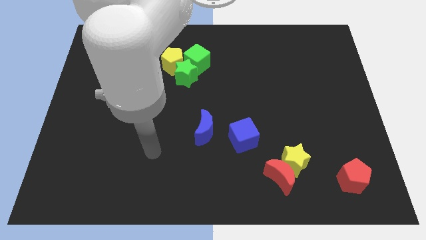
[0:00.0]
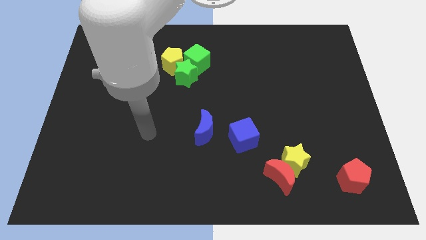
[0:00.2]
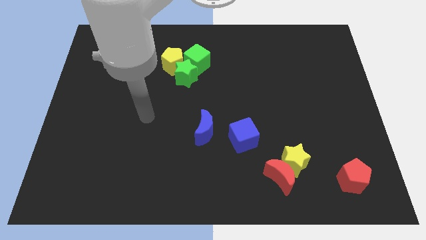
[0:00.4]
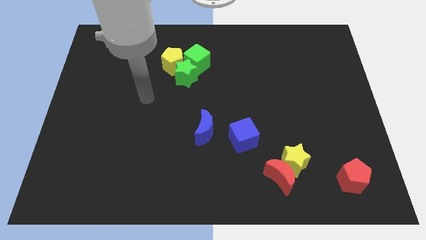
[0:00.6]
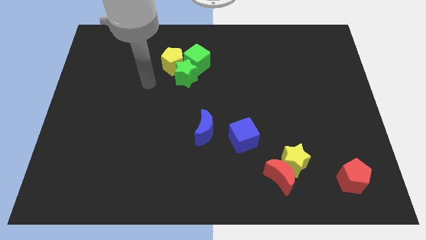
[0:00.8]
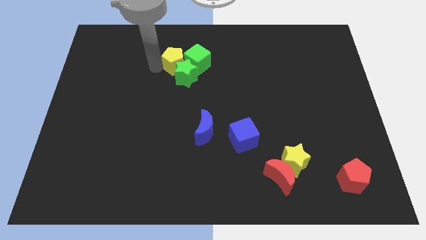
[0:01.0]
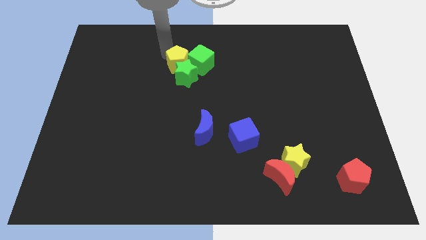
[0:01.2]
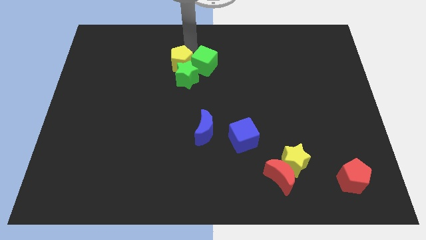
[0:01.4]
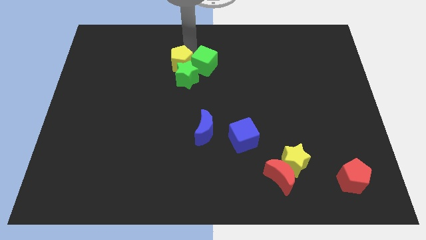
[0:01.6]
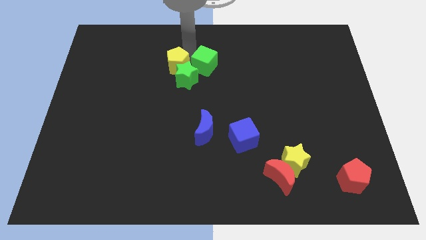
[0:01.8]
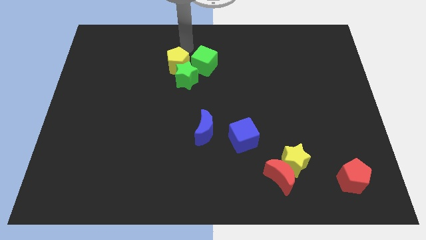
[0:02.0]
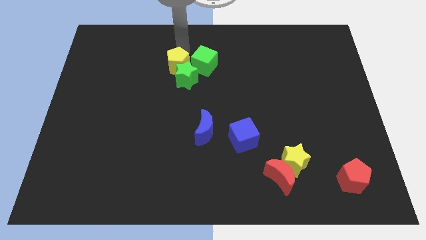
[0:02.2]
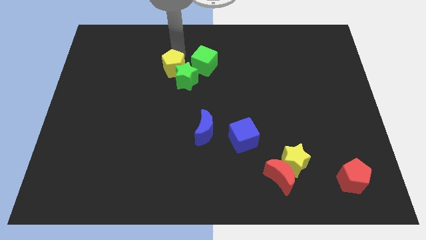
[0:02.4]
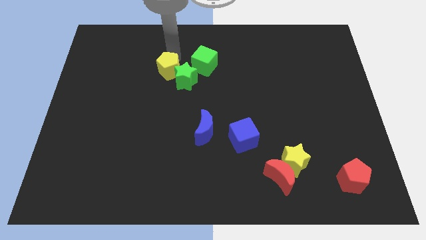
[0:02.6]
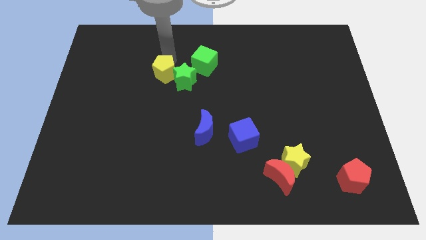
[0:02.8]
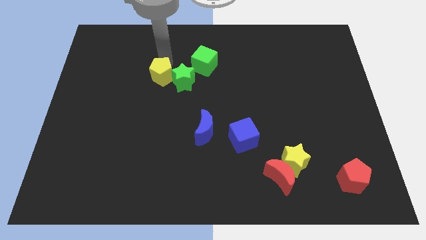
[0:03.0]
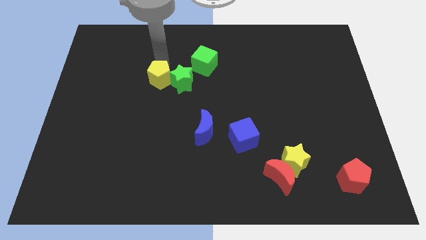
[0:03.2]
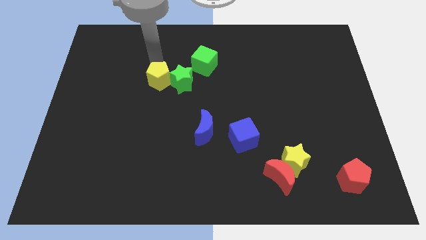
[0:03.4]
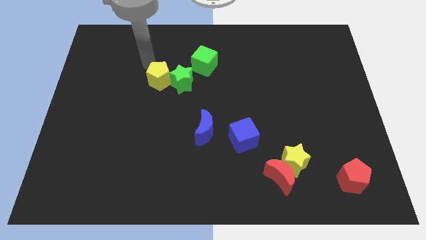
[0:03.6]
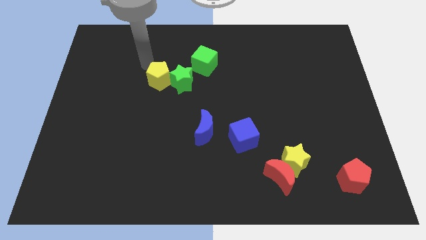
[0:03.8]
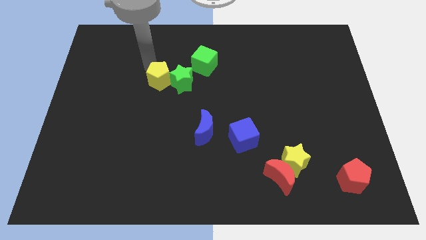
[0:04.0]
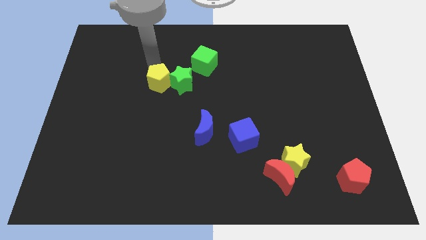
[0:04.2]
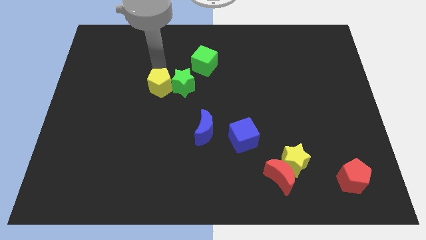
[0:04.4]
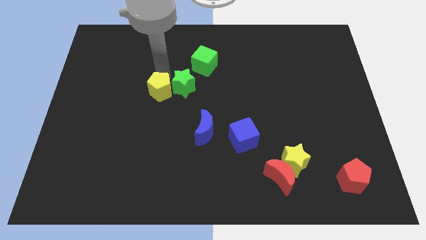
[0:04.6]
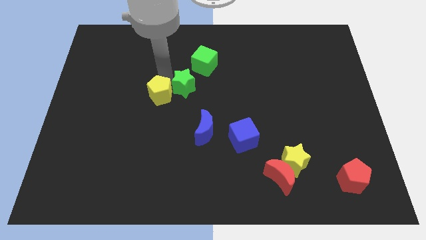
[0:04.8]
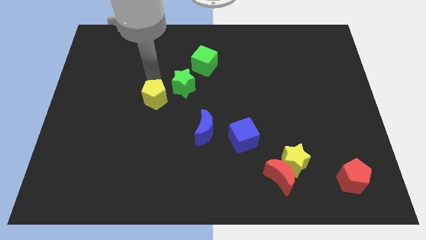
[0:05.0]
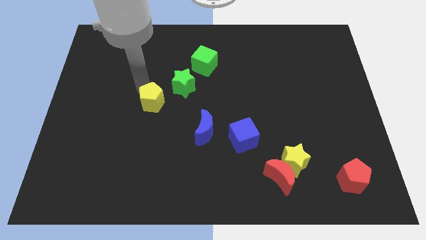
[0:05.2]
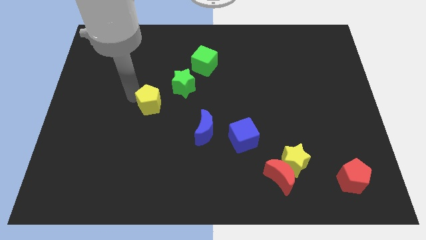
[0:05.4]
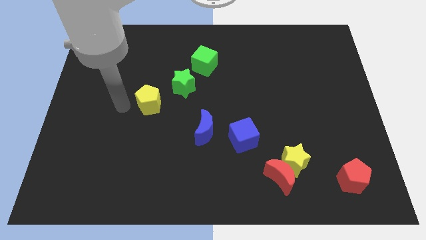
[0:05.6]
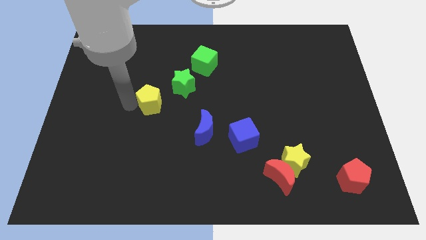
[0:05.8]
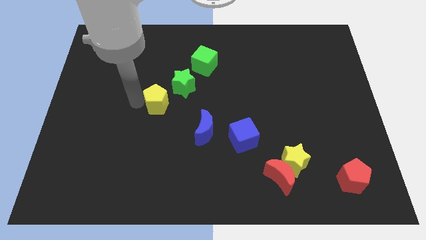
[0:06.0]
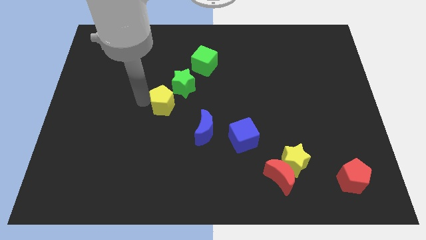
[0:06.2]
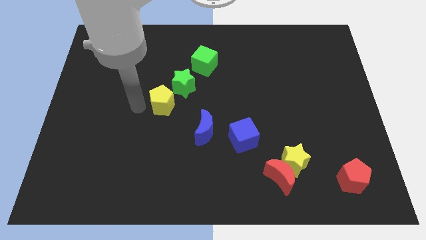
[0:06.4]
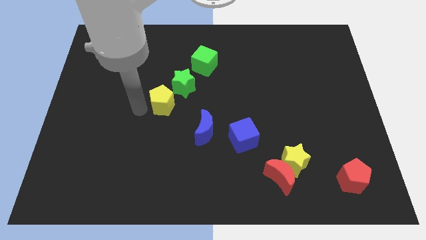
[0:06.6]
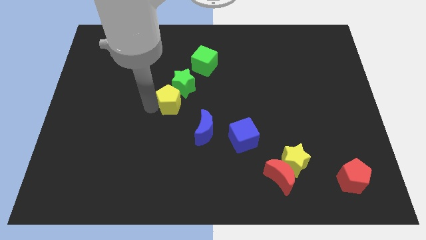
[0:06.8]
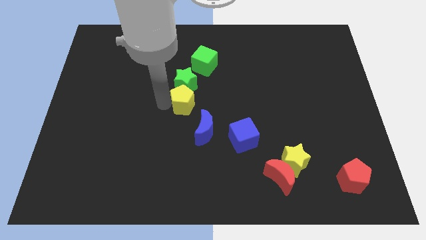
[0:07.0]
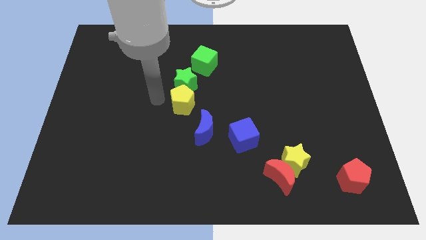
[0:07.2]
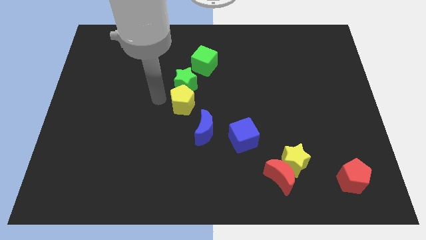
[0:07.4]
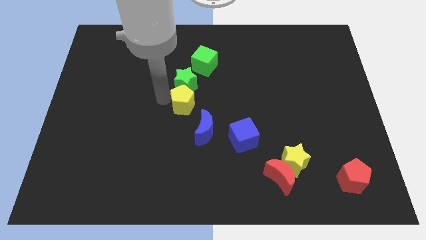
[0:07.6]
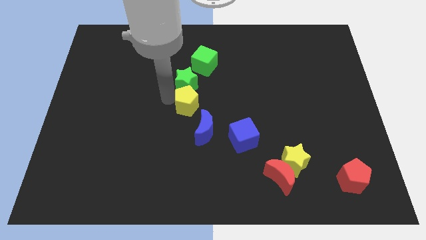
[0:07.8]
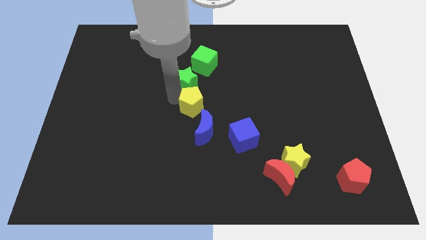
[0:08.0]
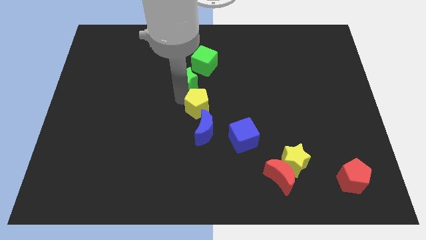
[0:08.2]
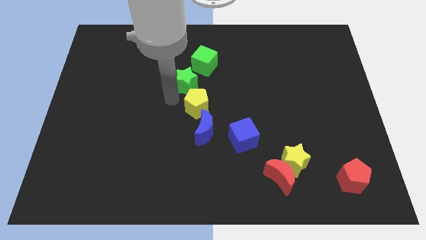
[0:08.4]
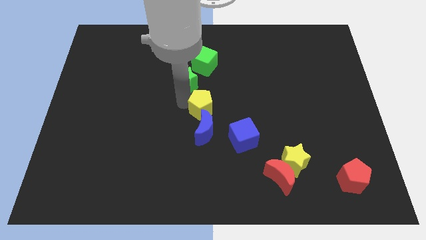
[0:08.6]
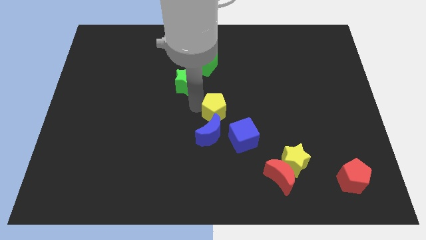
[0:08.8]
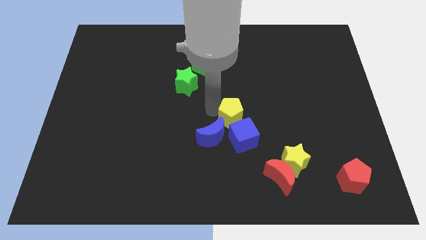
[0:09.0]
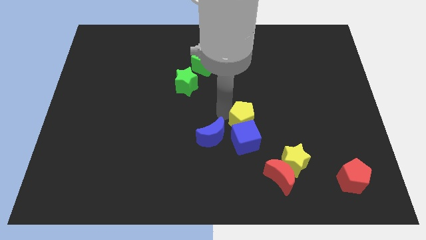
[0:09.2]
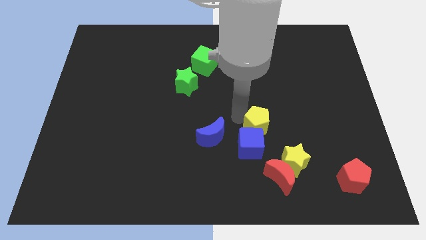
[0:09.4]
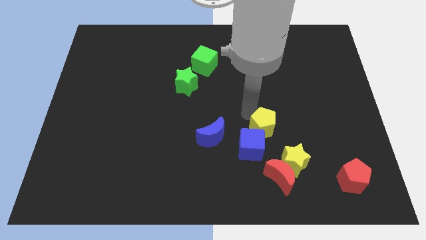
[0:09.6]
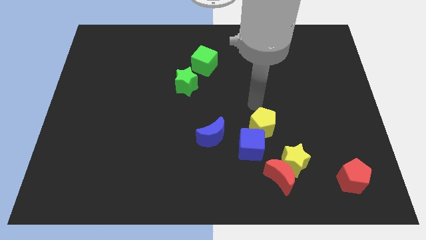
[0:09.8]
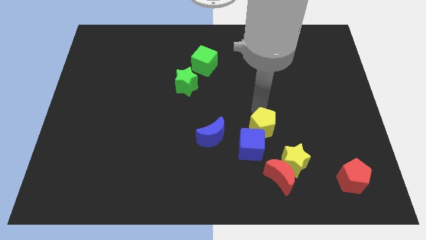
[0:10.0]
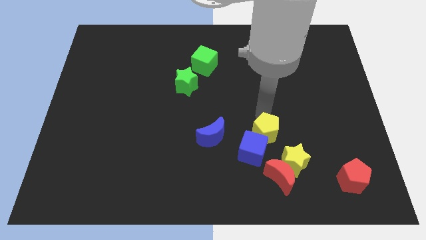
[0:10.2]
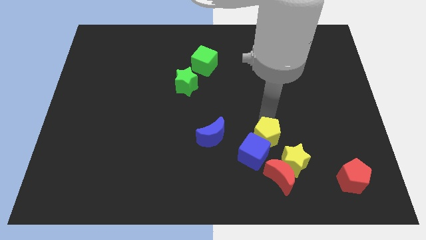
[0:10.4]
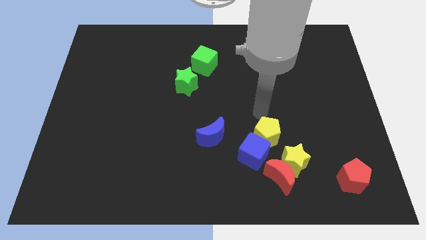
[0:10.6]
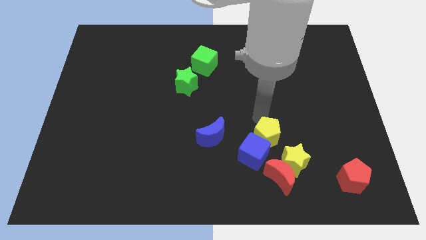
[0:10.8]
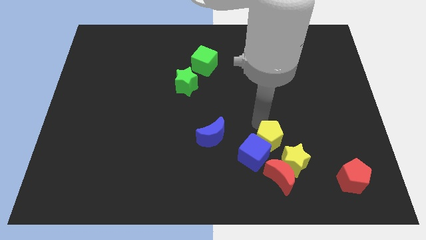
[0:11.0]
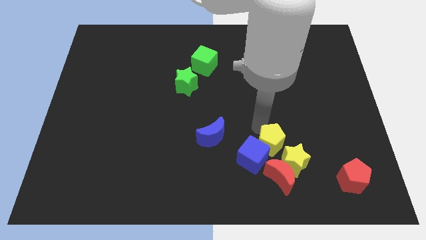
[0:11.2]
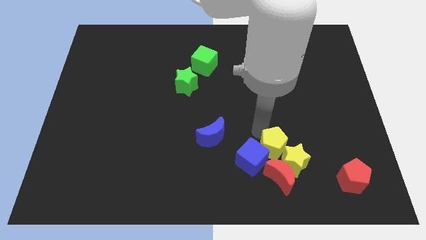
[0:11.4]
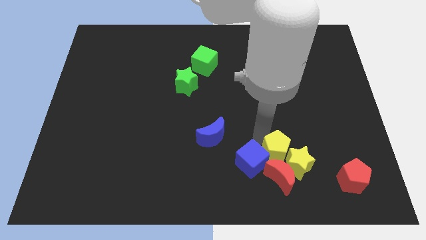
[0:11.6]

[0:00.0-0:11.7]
push the yellow pentagon to the red moon

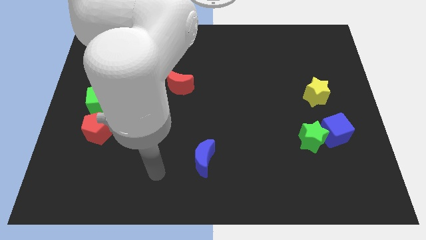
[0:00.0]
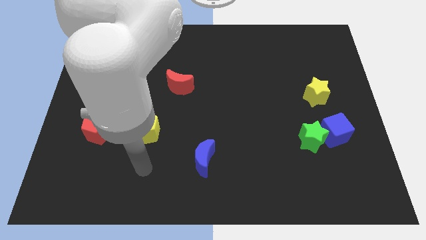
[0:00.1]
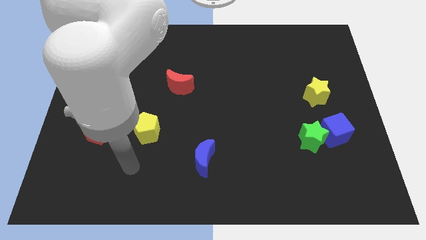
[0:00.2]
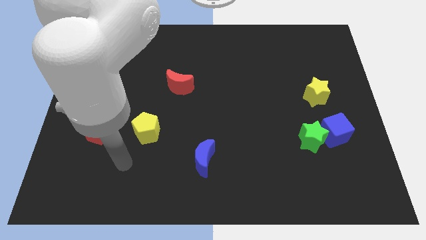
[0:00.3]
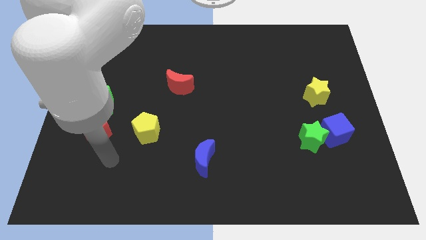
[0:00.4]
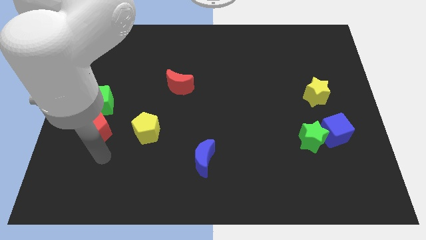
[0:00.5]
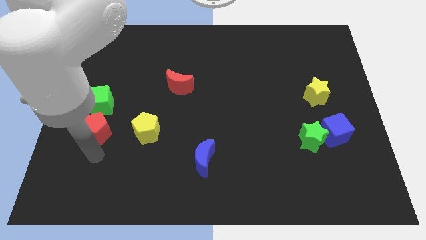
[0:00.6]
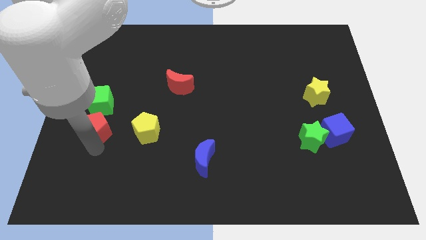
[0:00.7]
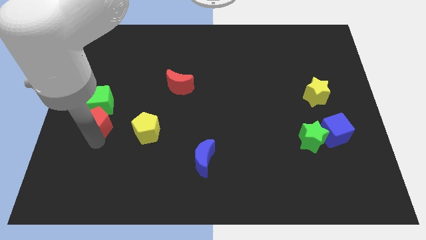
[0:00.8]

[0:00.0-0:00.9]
slide the red pentagon to the green cube

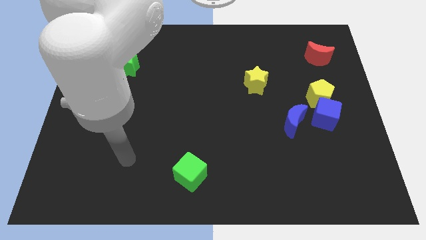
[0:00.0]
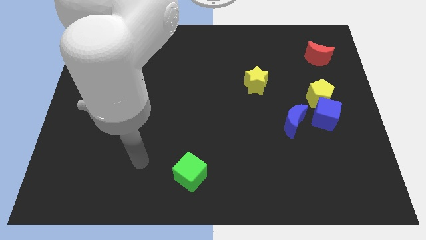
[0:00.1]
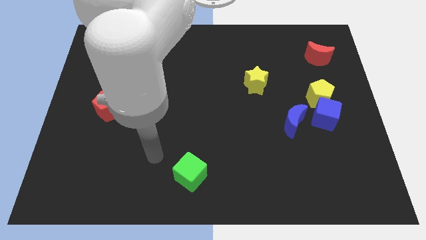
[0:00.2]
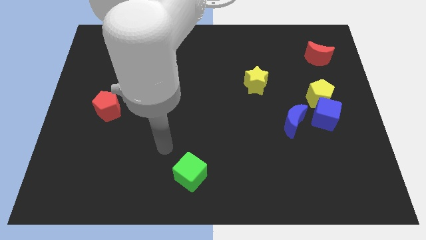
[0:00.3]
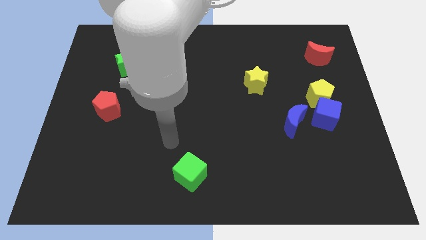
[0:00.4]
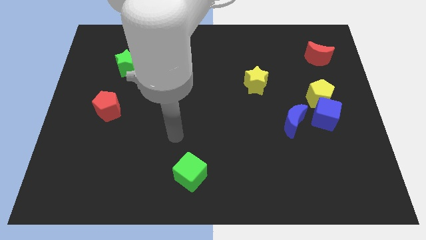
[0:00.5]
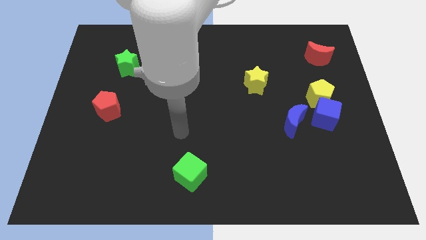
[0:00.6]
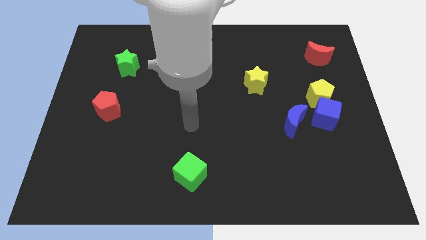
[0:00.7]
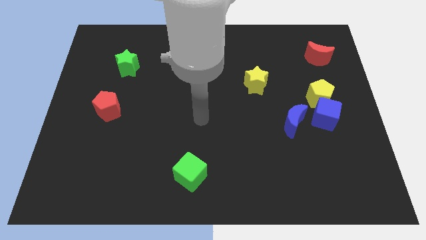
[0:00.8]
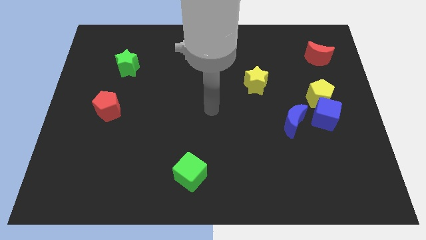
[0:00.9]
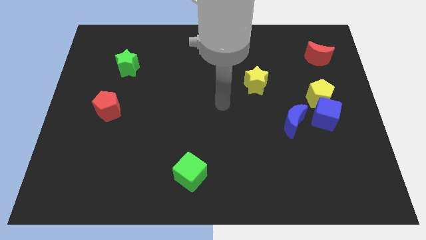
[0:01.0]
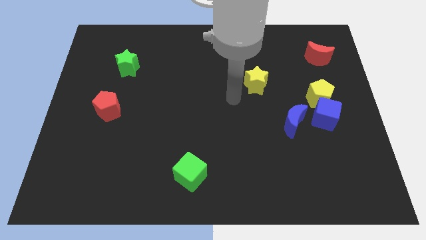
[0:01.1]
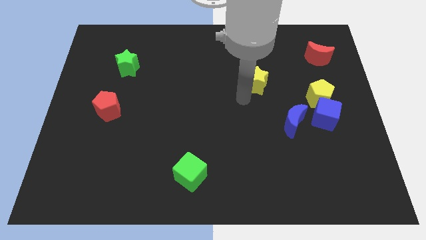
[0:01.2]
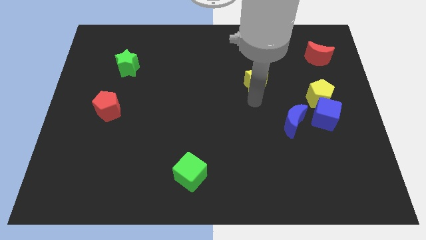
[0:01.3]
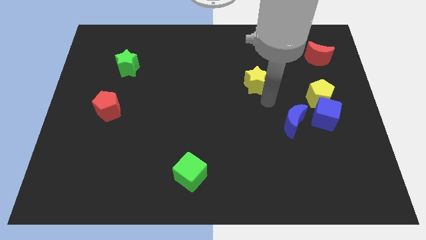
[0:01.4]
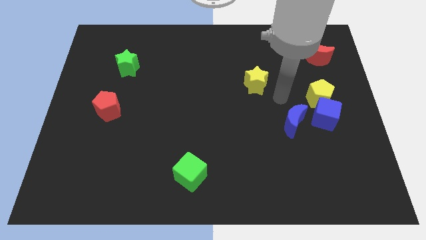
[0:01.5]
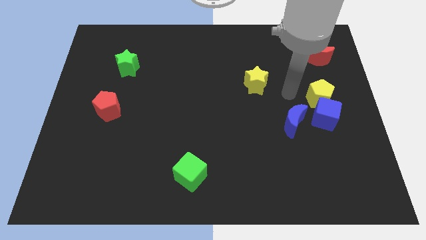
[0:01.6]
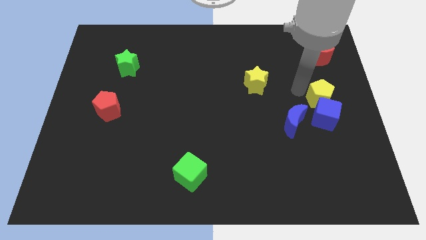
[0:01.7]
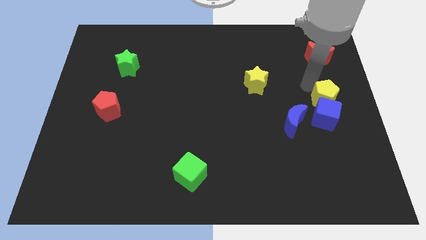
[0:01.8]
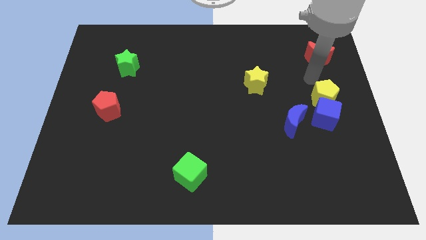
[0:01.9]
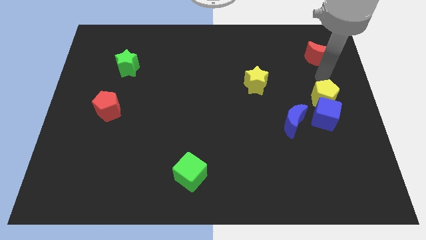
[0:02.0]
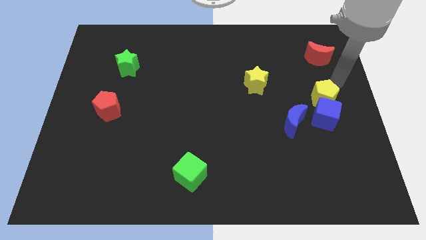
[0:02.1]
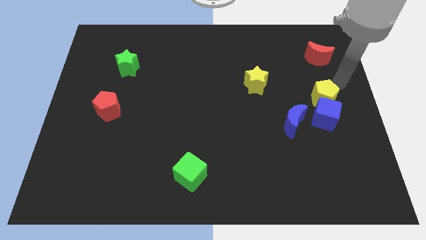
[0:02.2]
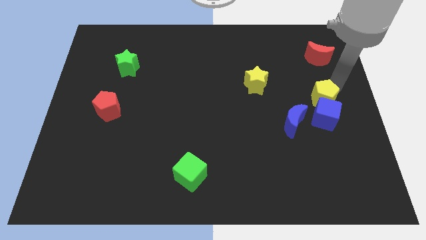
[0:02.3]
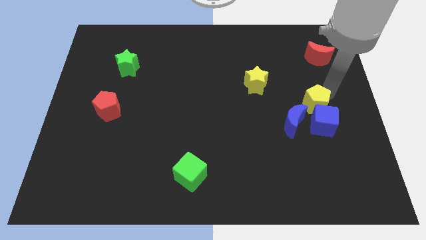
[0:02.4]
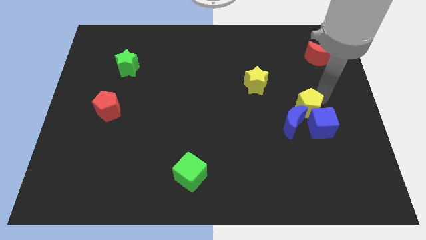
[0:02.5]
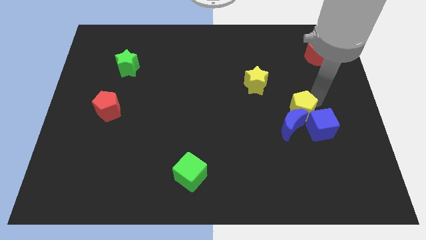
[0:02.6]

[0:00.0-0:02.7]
move the yellow pentagon to the blue moon
